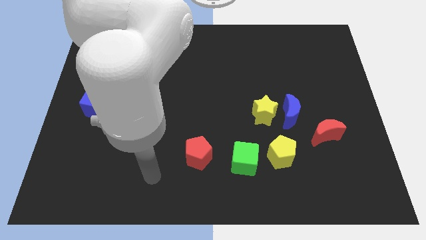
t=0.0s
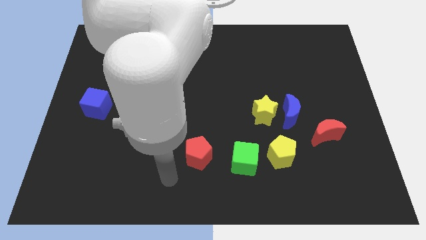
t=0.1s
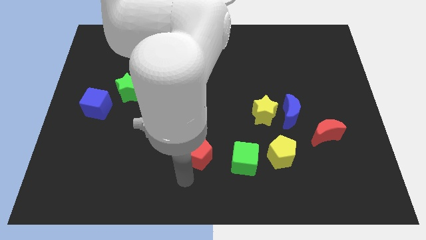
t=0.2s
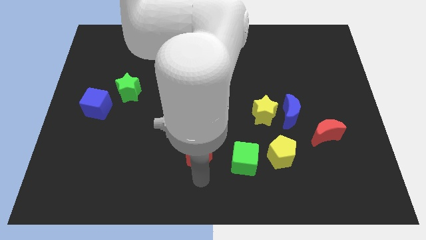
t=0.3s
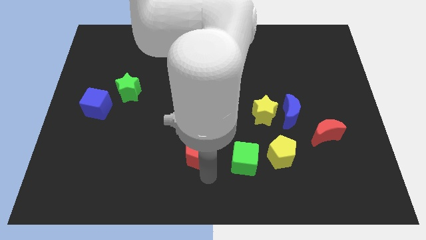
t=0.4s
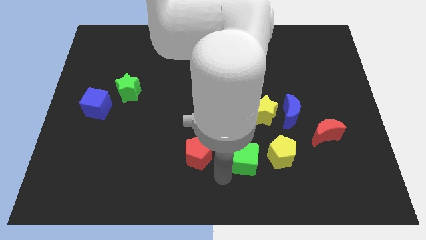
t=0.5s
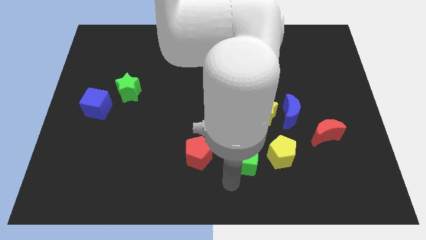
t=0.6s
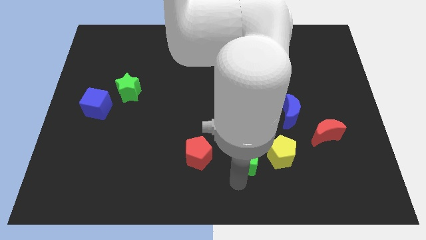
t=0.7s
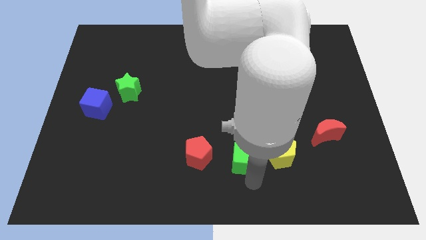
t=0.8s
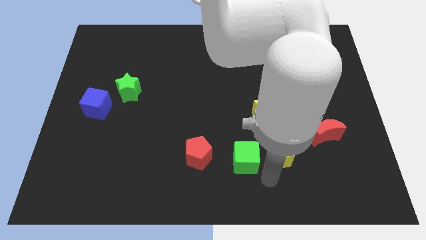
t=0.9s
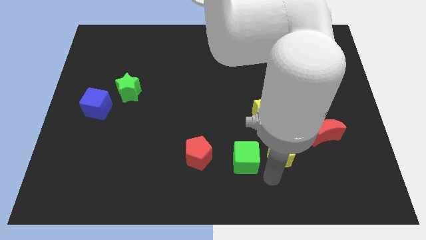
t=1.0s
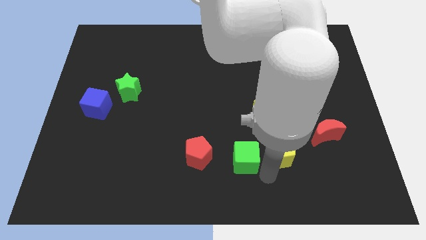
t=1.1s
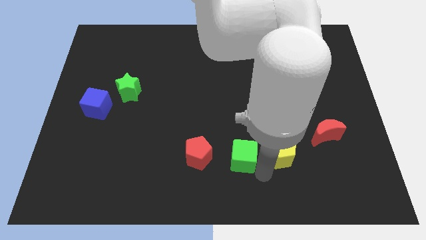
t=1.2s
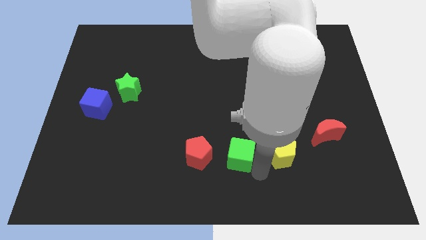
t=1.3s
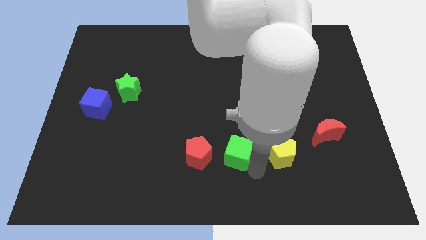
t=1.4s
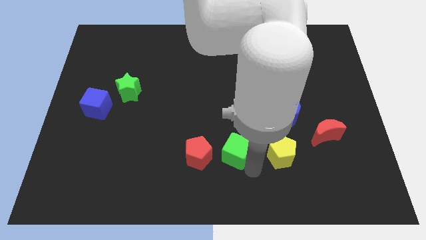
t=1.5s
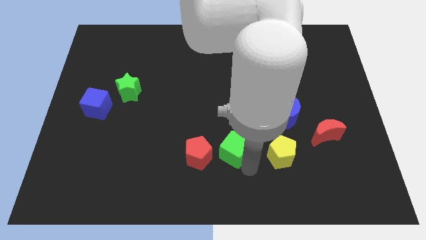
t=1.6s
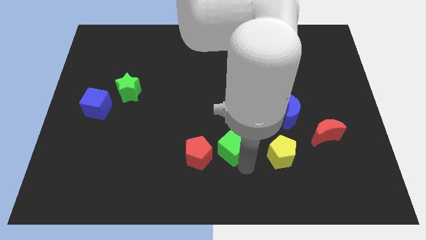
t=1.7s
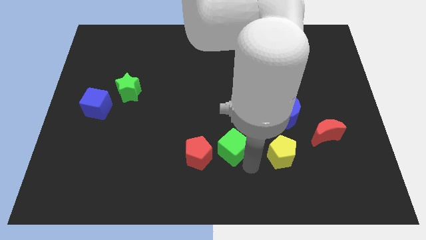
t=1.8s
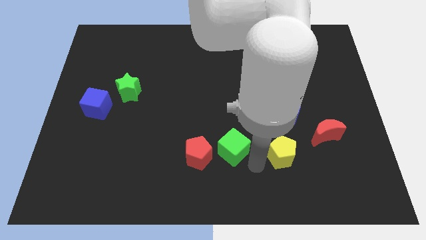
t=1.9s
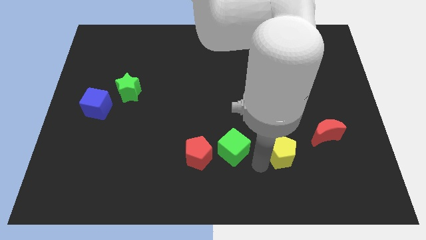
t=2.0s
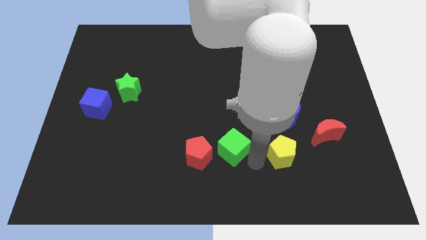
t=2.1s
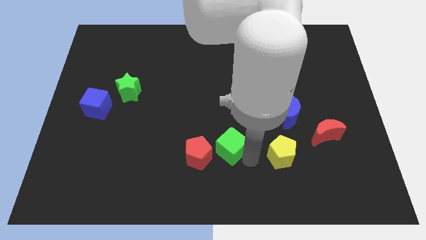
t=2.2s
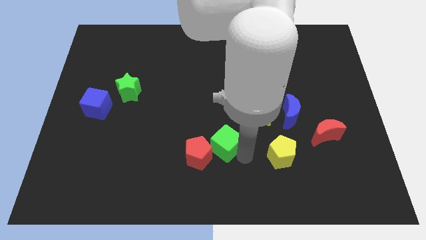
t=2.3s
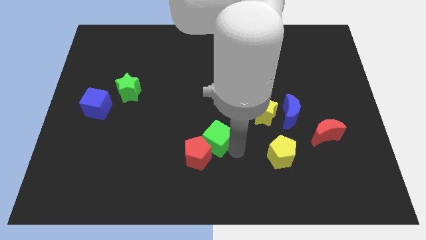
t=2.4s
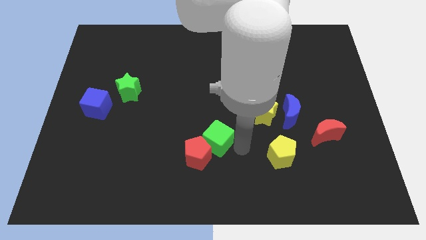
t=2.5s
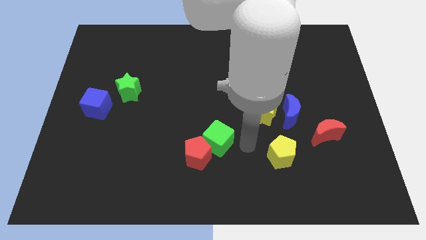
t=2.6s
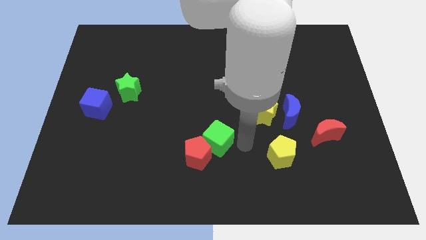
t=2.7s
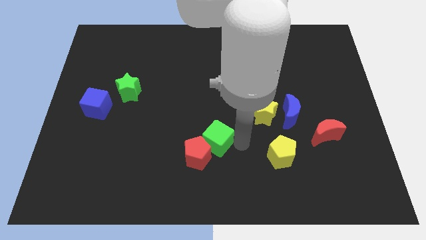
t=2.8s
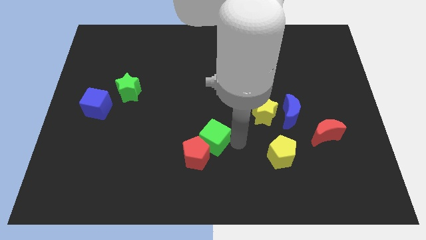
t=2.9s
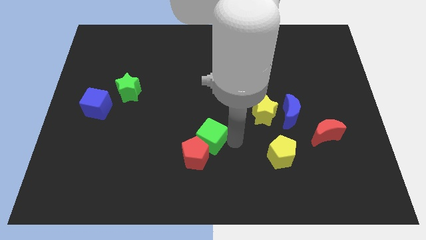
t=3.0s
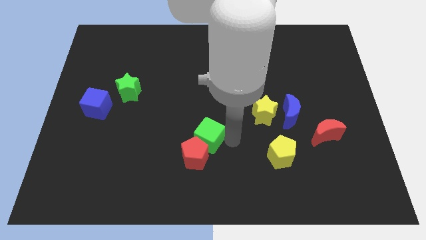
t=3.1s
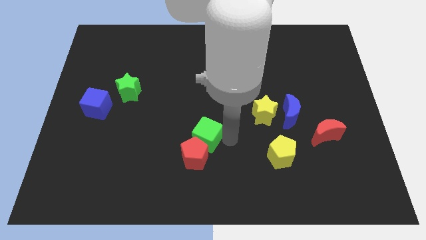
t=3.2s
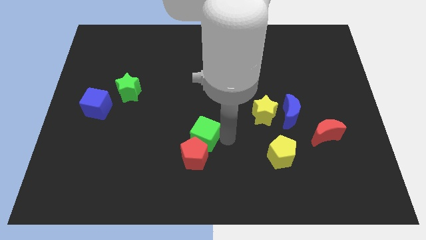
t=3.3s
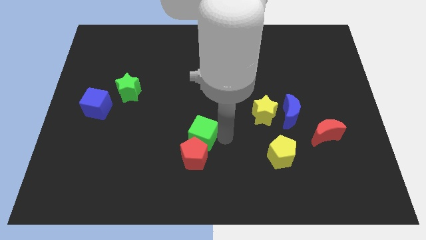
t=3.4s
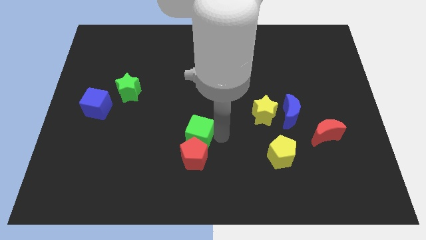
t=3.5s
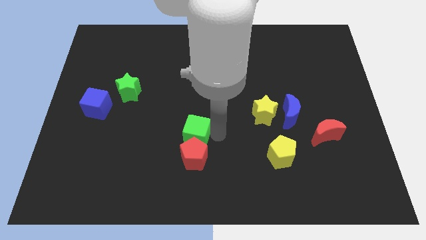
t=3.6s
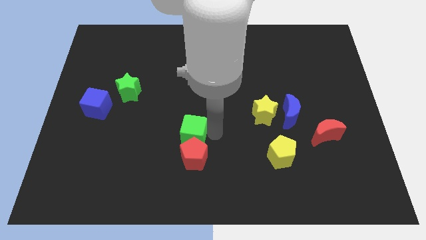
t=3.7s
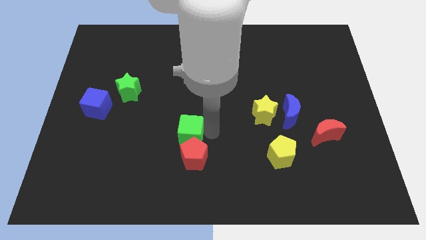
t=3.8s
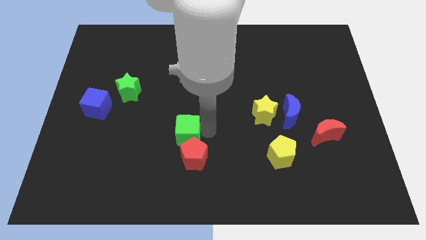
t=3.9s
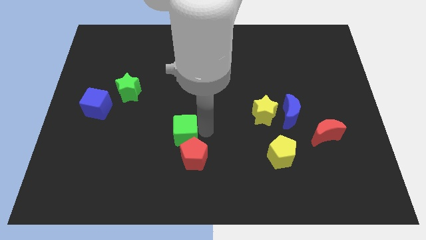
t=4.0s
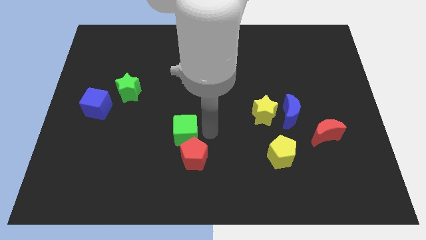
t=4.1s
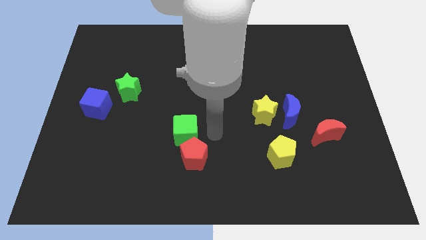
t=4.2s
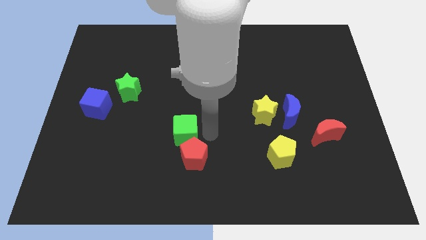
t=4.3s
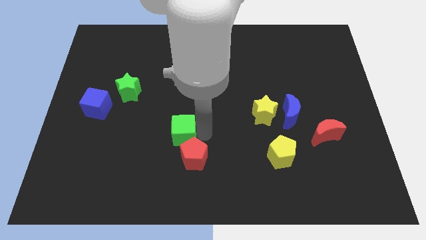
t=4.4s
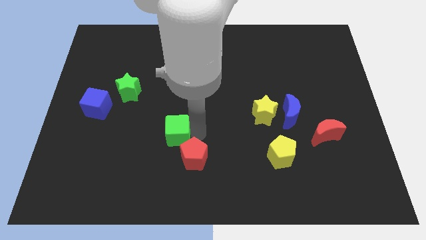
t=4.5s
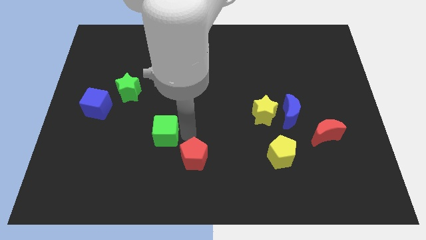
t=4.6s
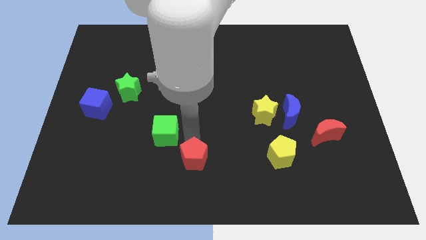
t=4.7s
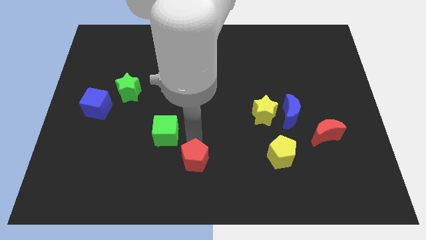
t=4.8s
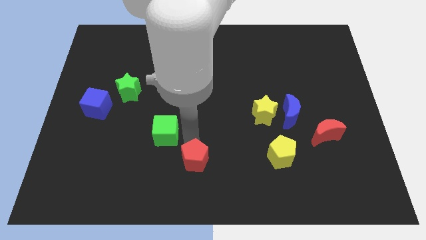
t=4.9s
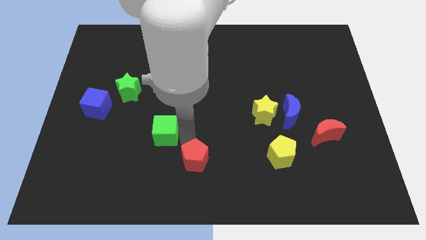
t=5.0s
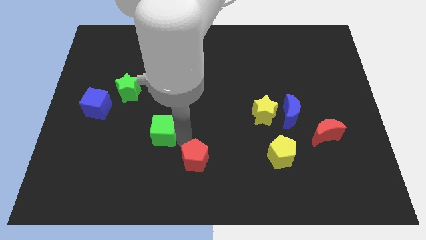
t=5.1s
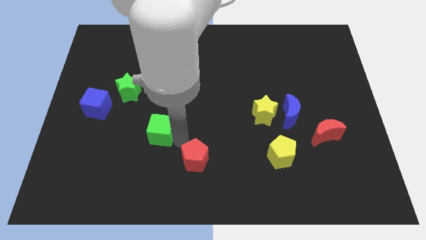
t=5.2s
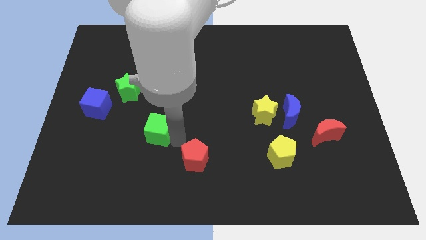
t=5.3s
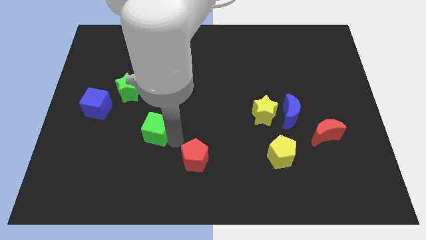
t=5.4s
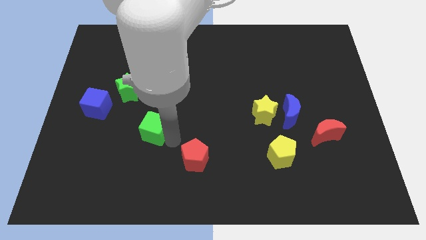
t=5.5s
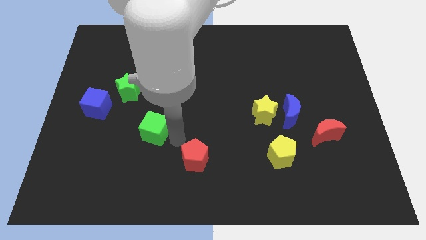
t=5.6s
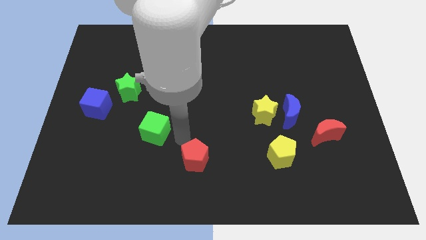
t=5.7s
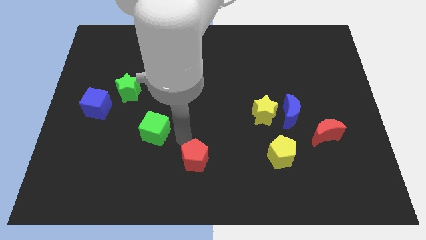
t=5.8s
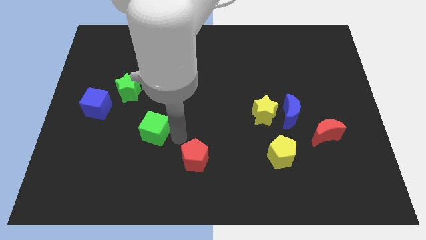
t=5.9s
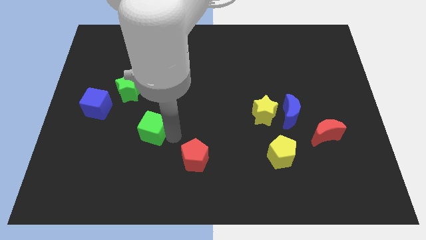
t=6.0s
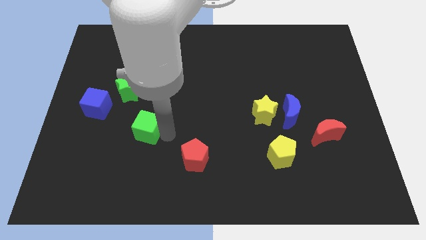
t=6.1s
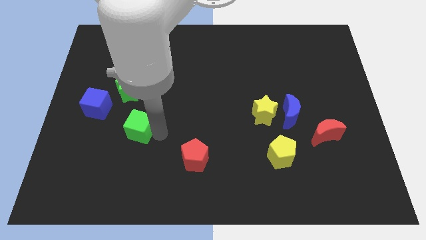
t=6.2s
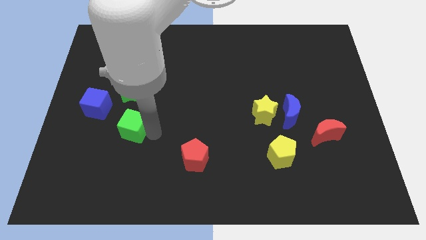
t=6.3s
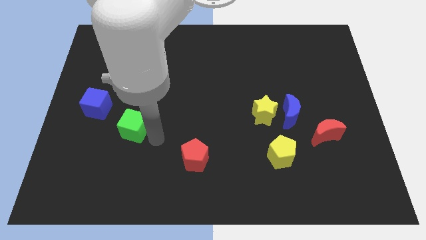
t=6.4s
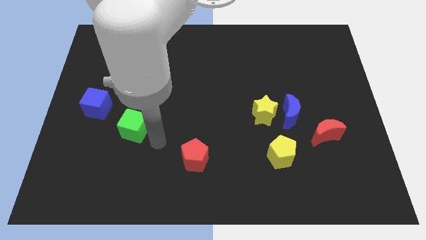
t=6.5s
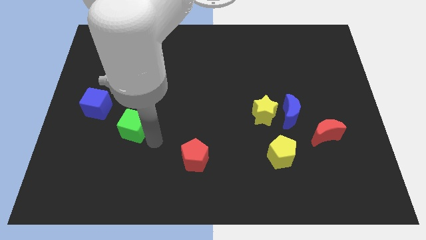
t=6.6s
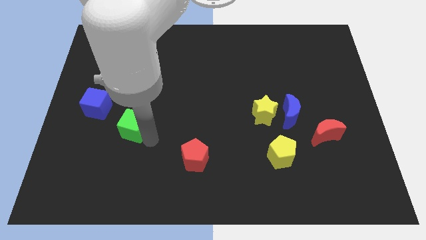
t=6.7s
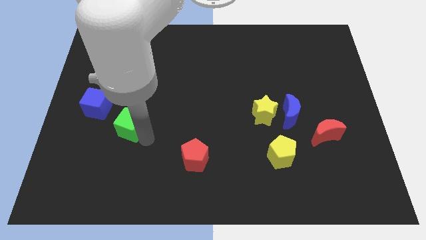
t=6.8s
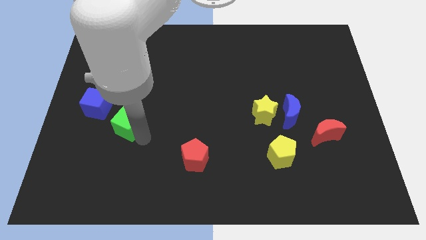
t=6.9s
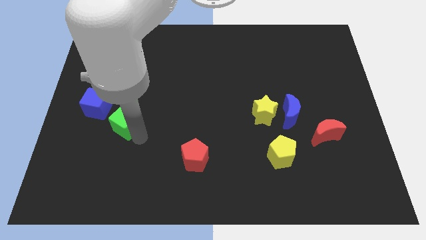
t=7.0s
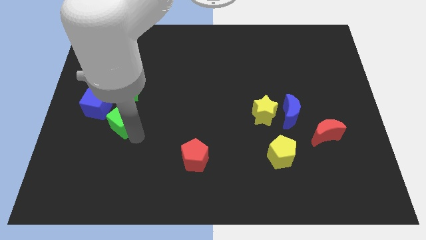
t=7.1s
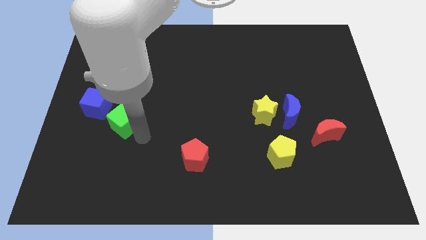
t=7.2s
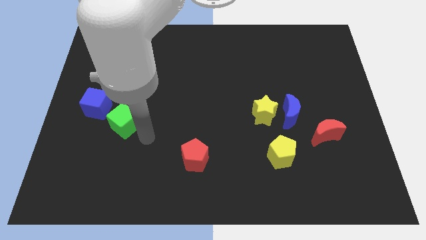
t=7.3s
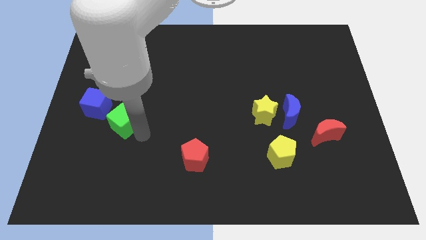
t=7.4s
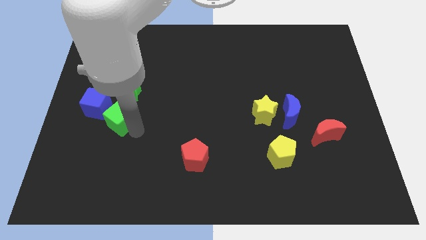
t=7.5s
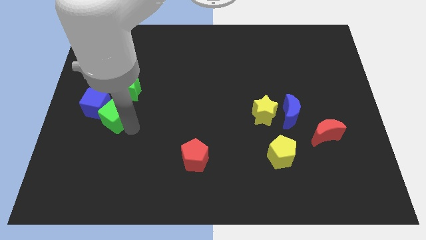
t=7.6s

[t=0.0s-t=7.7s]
push the green cube close to the blue cube

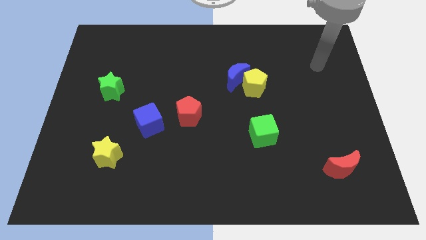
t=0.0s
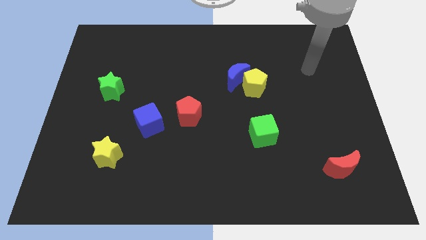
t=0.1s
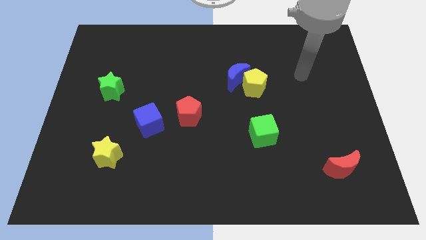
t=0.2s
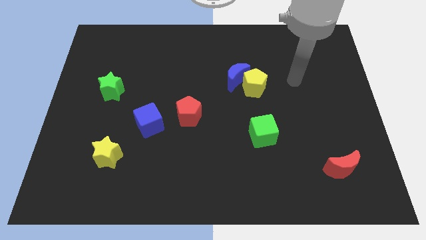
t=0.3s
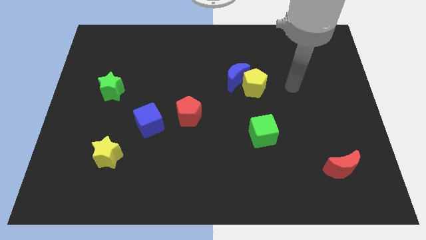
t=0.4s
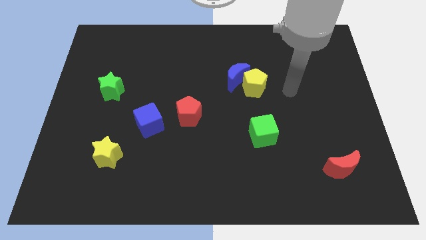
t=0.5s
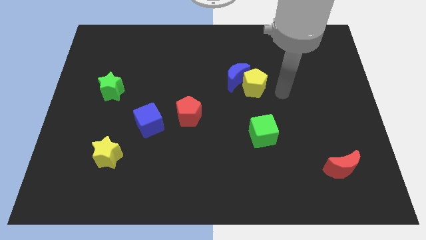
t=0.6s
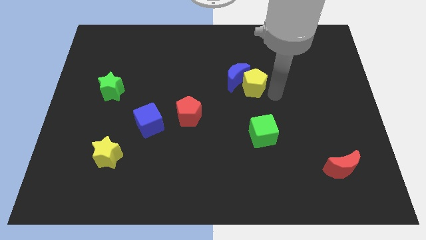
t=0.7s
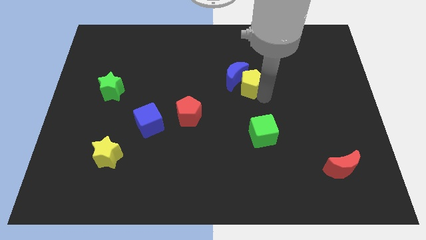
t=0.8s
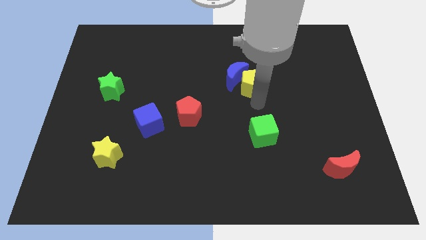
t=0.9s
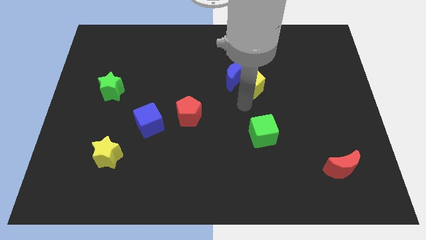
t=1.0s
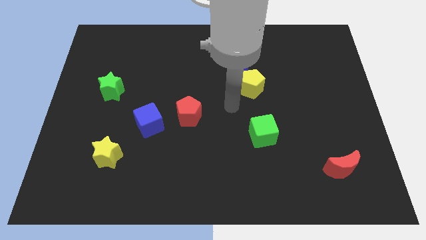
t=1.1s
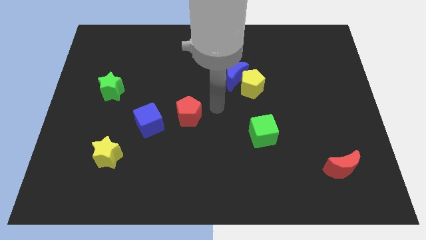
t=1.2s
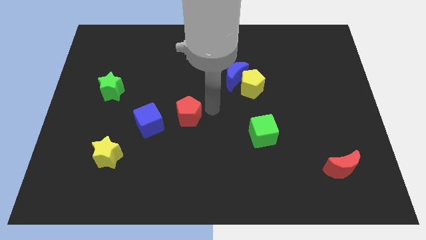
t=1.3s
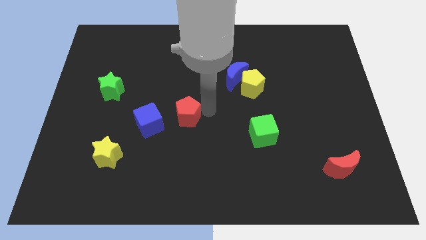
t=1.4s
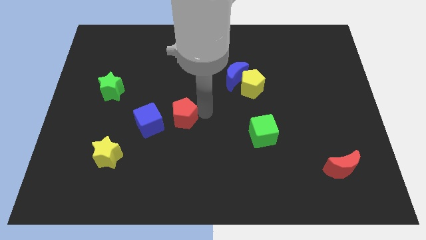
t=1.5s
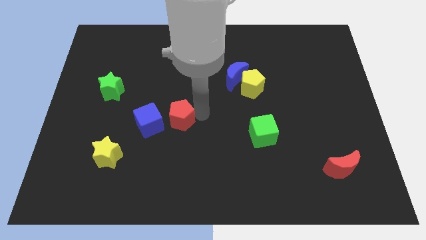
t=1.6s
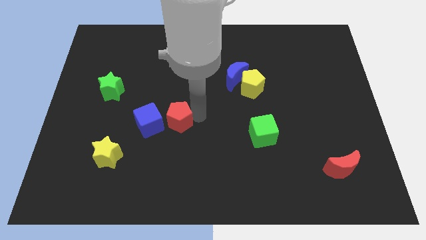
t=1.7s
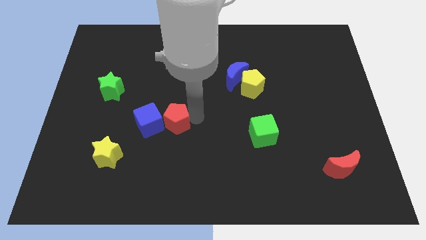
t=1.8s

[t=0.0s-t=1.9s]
slide the red pentagon towards the blue cube
